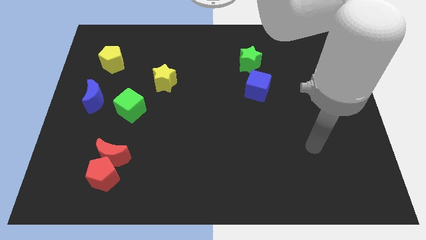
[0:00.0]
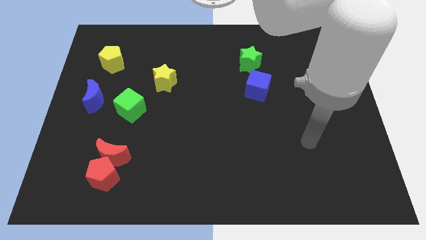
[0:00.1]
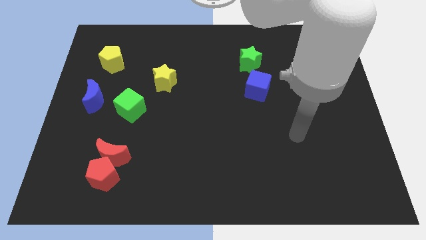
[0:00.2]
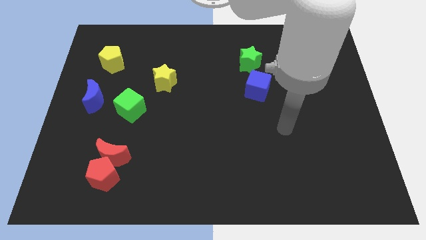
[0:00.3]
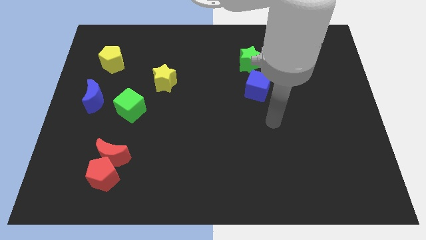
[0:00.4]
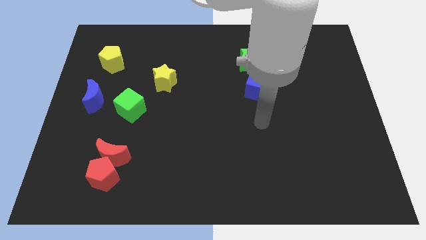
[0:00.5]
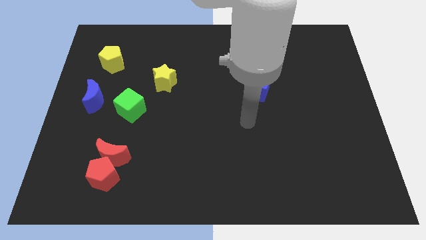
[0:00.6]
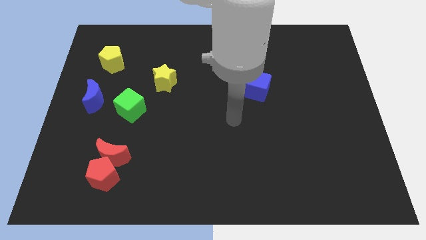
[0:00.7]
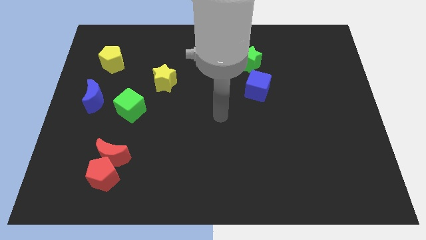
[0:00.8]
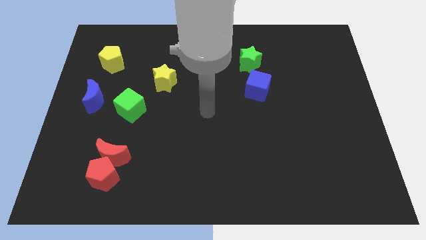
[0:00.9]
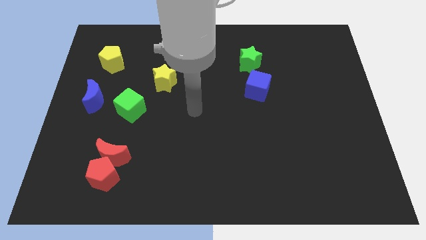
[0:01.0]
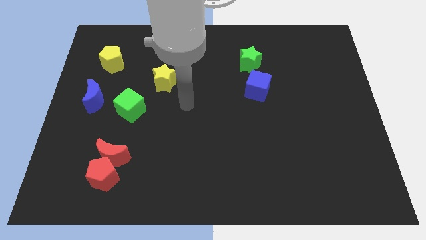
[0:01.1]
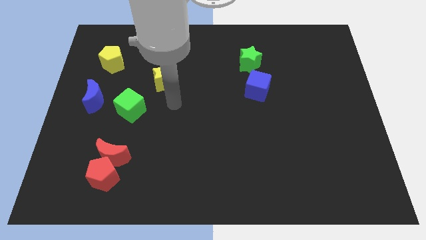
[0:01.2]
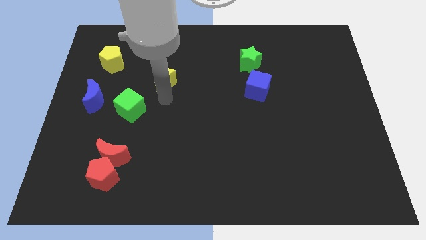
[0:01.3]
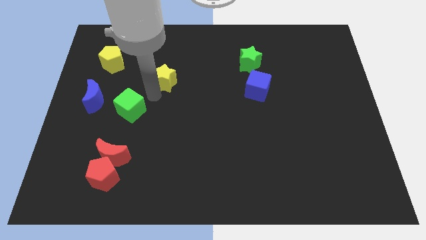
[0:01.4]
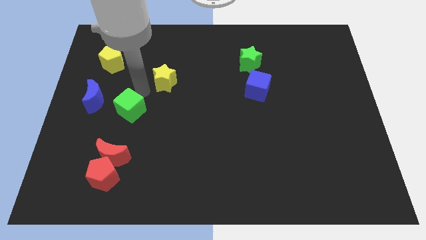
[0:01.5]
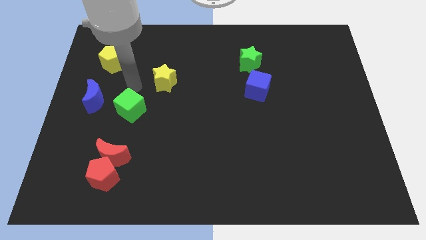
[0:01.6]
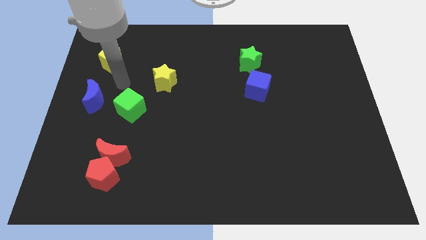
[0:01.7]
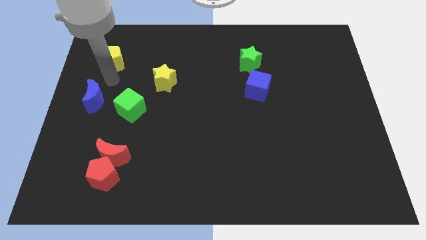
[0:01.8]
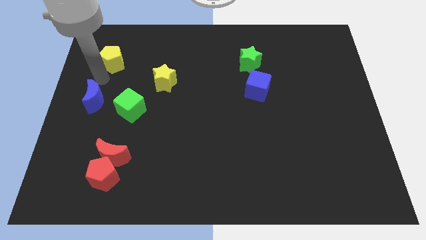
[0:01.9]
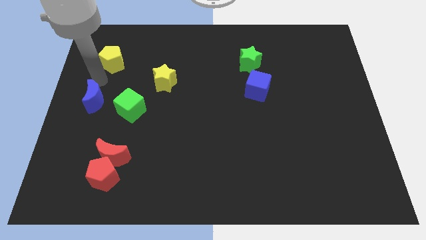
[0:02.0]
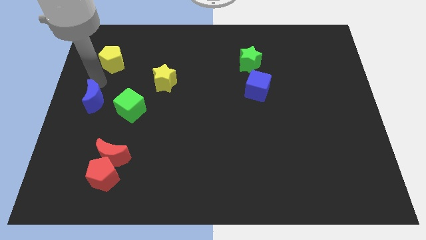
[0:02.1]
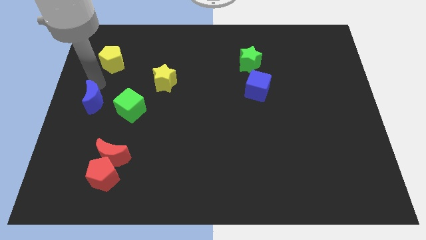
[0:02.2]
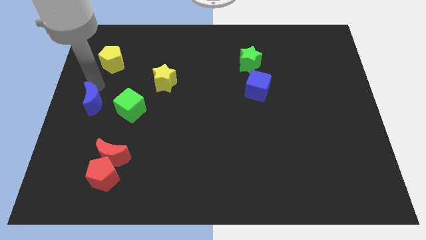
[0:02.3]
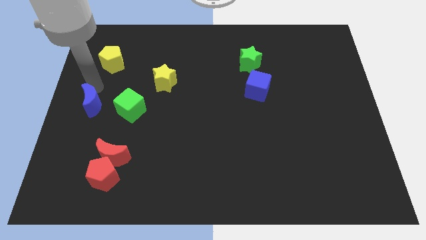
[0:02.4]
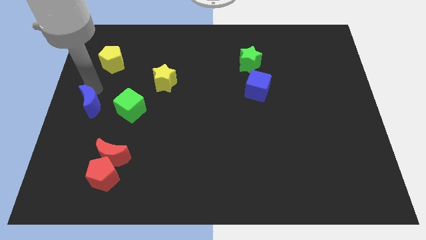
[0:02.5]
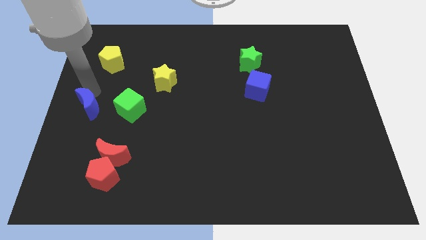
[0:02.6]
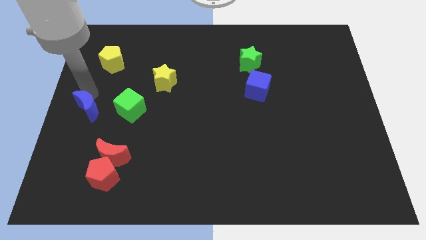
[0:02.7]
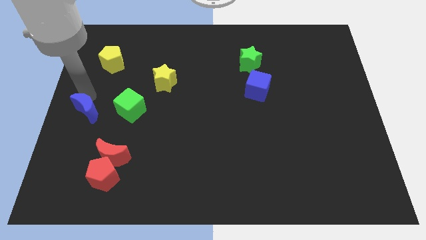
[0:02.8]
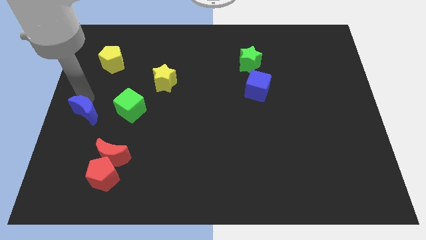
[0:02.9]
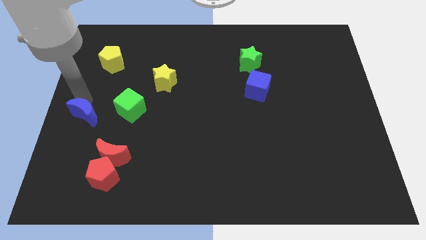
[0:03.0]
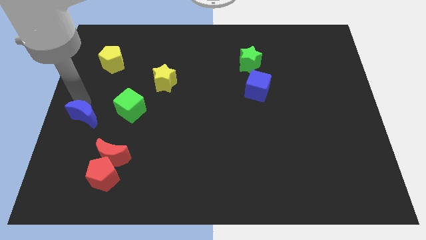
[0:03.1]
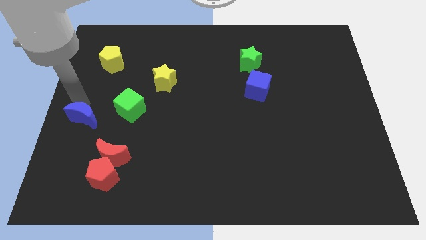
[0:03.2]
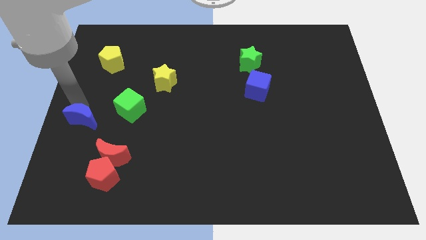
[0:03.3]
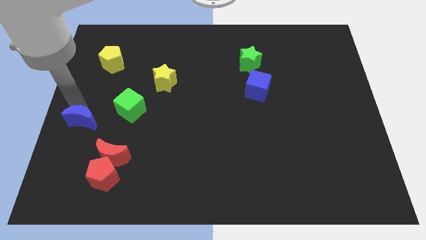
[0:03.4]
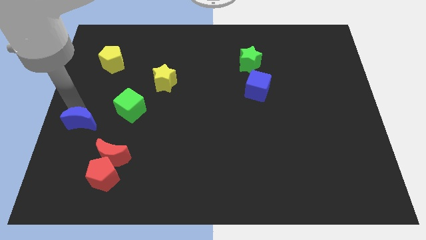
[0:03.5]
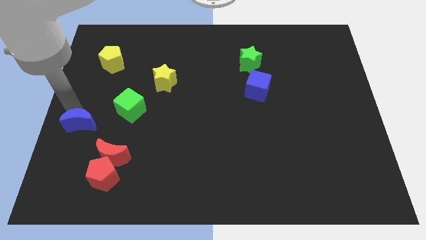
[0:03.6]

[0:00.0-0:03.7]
slightly push the blue moon downwards

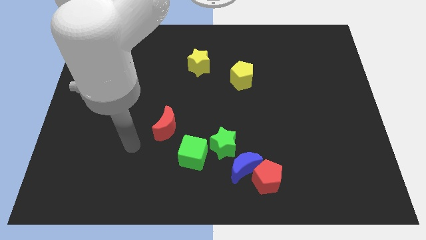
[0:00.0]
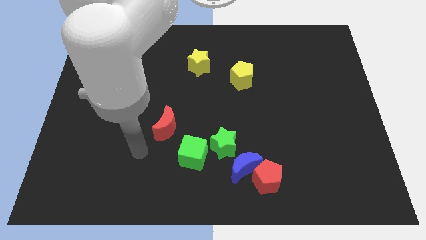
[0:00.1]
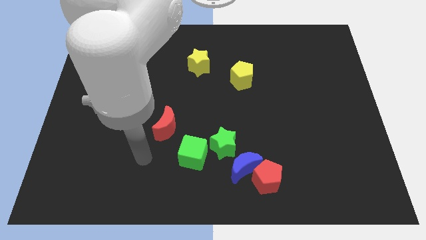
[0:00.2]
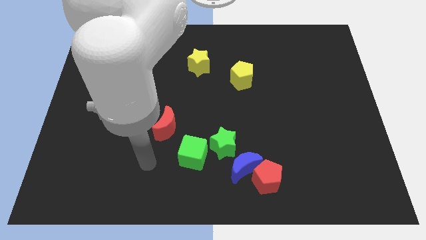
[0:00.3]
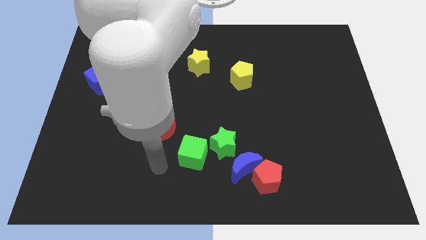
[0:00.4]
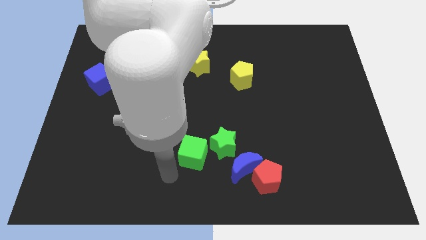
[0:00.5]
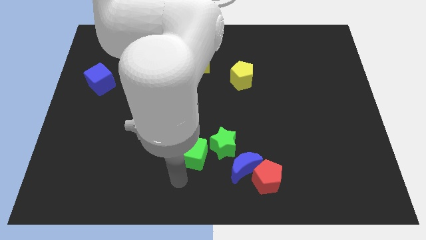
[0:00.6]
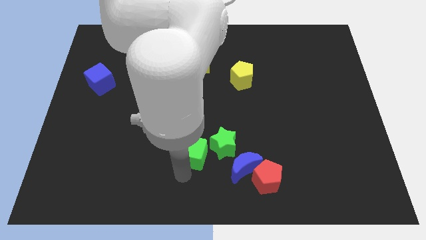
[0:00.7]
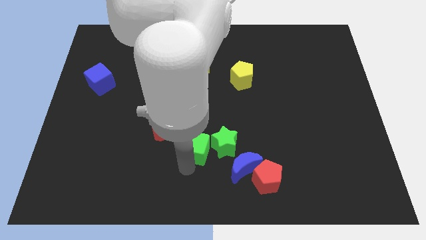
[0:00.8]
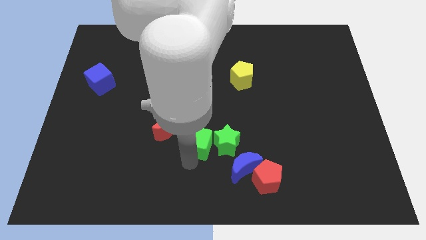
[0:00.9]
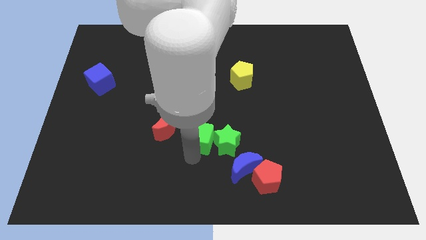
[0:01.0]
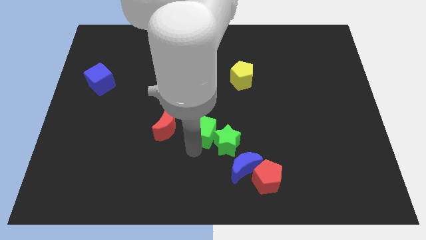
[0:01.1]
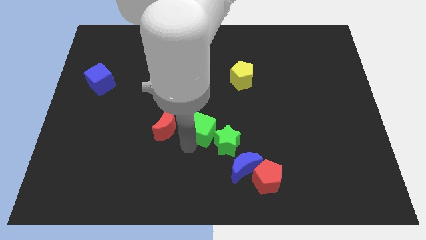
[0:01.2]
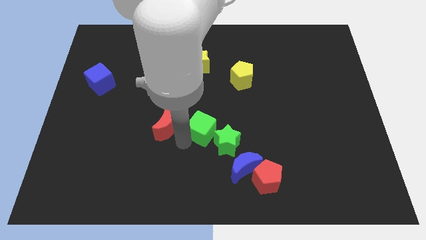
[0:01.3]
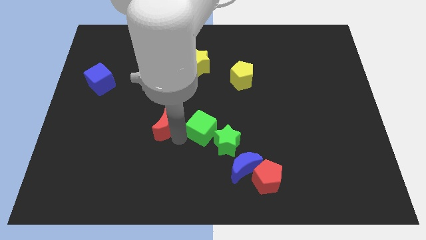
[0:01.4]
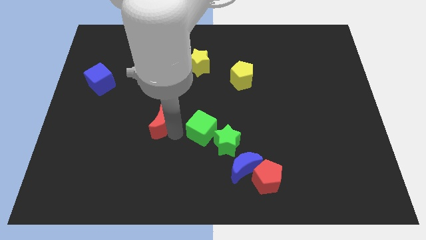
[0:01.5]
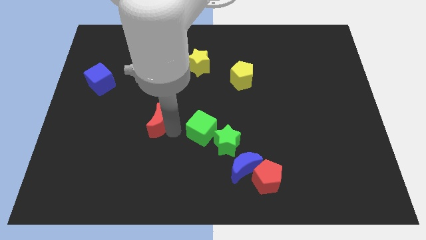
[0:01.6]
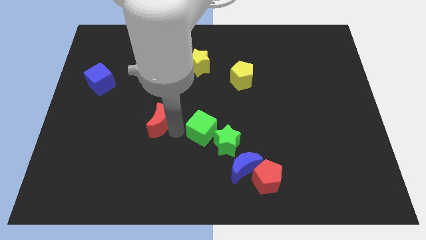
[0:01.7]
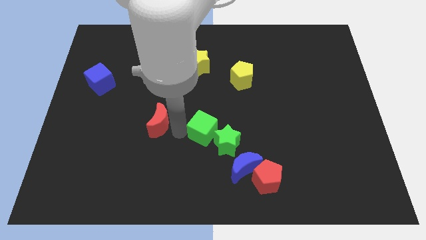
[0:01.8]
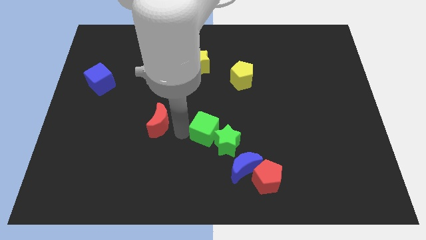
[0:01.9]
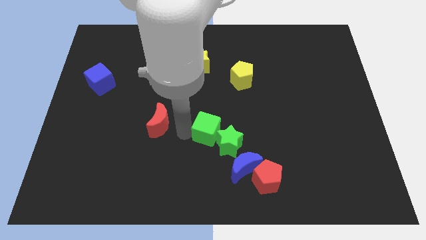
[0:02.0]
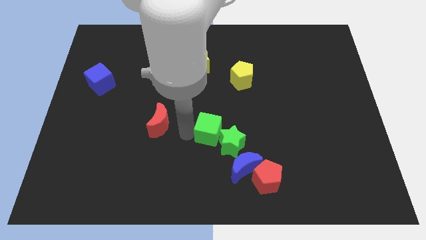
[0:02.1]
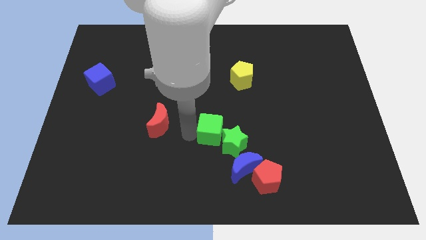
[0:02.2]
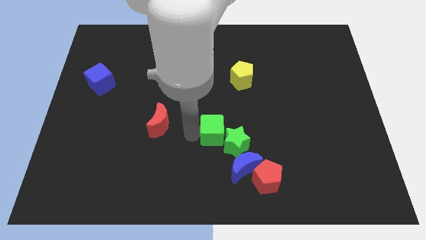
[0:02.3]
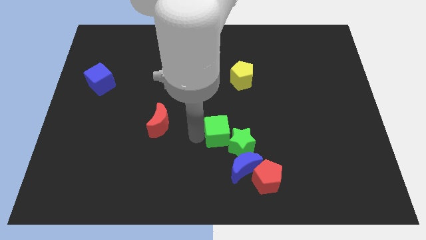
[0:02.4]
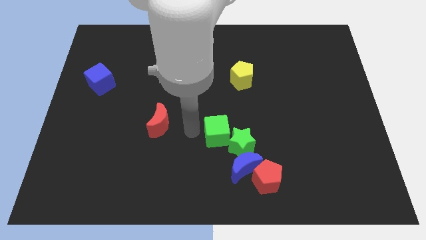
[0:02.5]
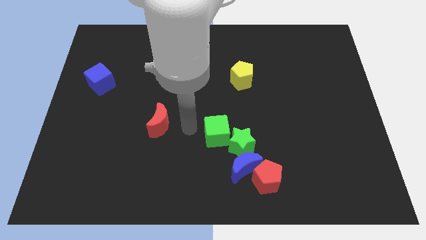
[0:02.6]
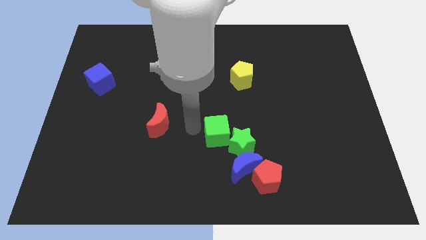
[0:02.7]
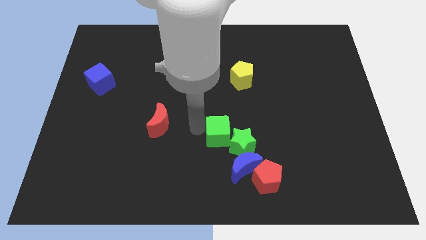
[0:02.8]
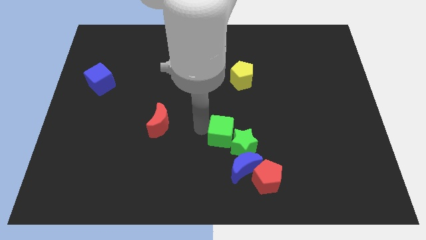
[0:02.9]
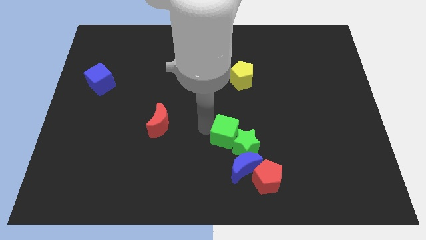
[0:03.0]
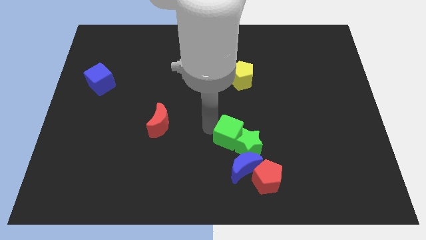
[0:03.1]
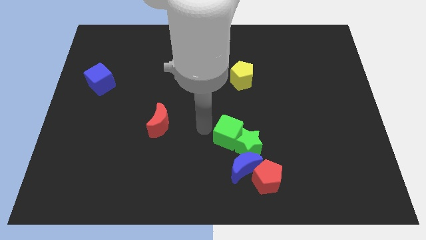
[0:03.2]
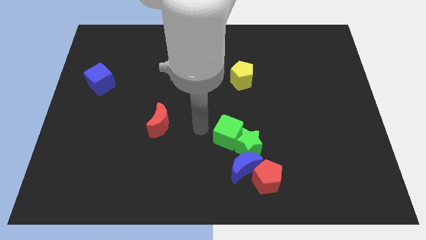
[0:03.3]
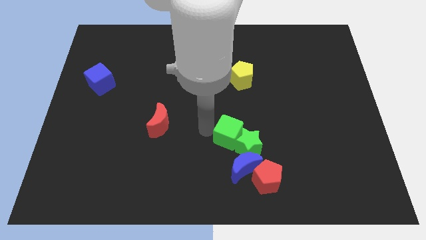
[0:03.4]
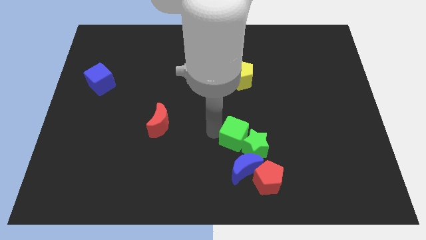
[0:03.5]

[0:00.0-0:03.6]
slide the green cube slightly to the right
